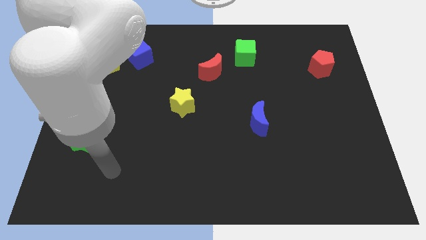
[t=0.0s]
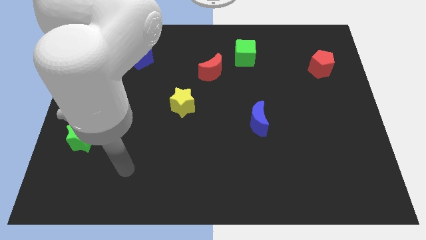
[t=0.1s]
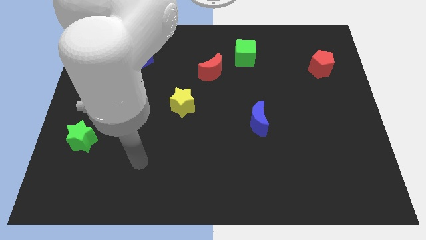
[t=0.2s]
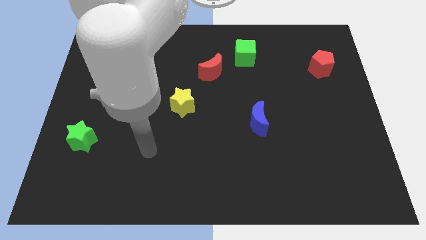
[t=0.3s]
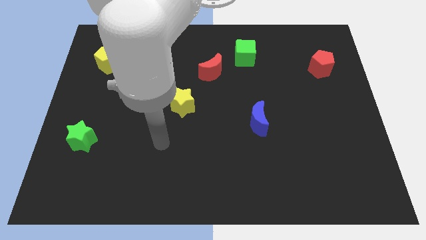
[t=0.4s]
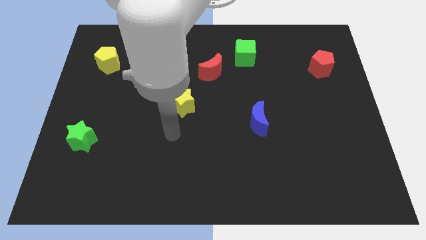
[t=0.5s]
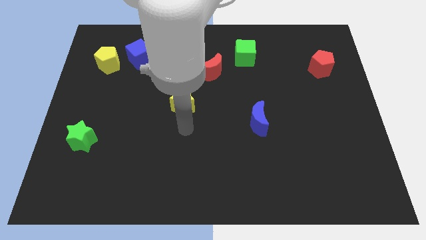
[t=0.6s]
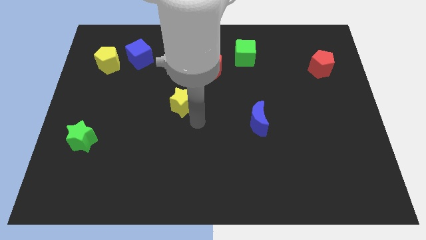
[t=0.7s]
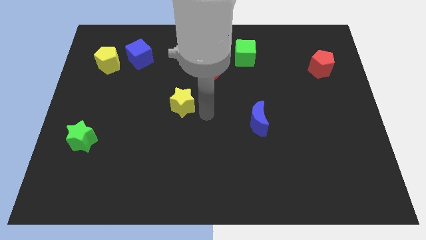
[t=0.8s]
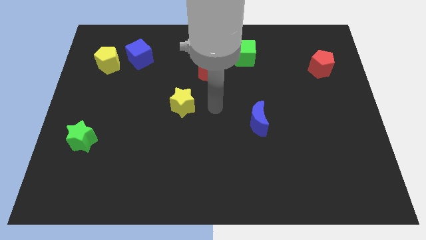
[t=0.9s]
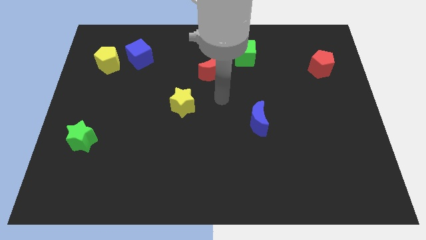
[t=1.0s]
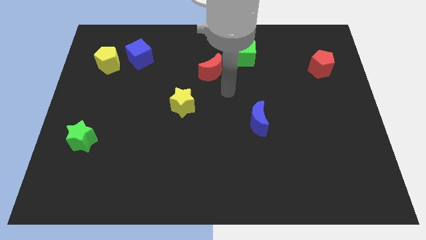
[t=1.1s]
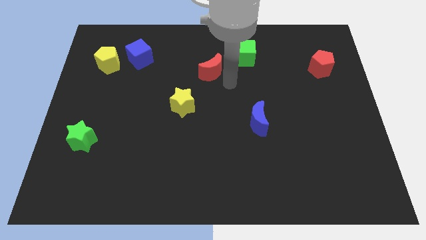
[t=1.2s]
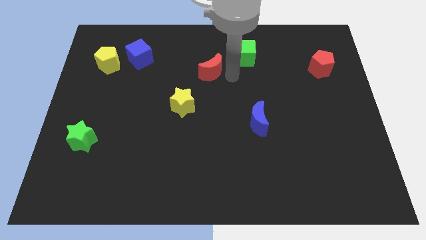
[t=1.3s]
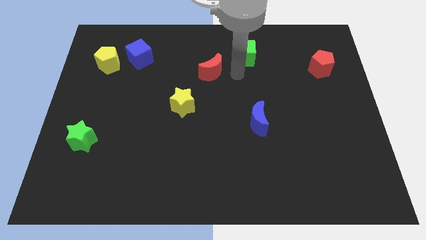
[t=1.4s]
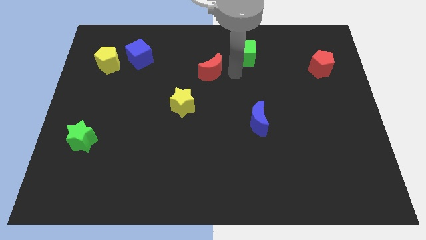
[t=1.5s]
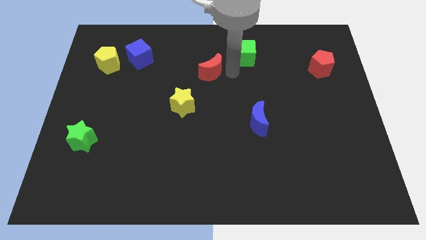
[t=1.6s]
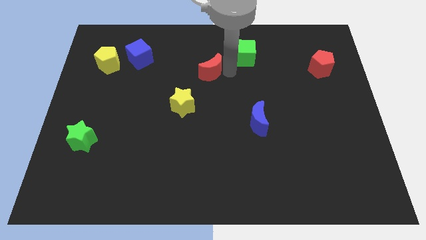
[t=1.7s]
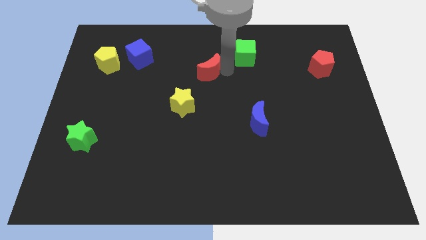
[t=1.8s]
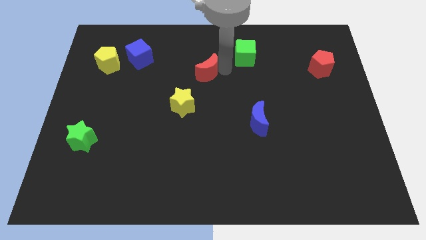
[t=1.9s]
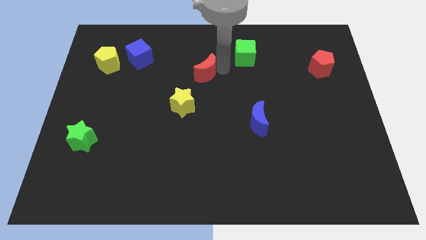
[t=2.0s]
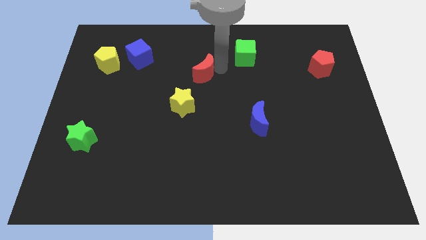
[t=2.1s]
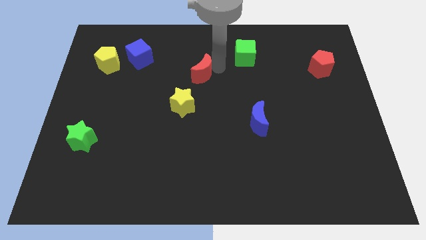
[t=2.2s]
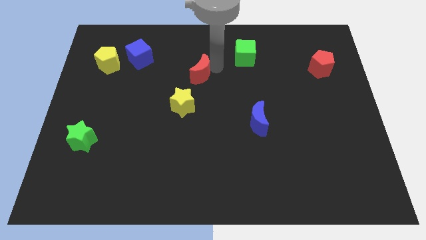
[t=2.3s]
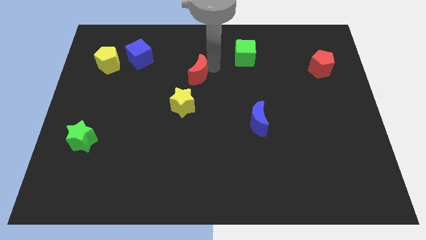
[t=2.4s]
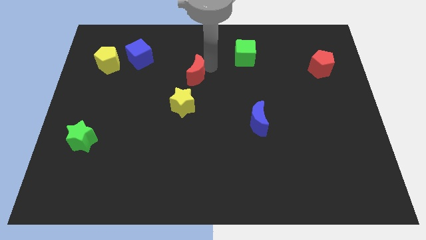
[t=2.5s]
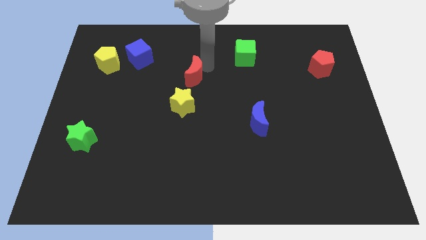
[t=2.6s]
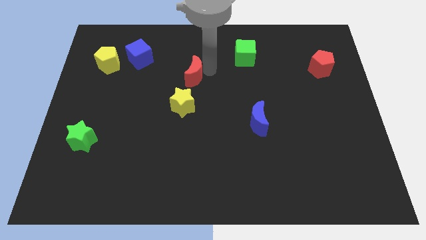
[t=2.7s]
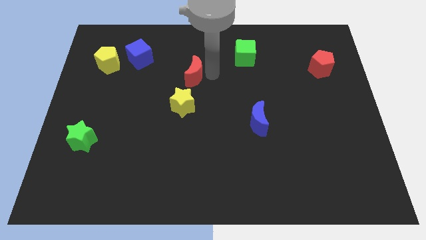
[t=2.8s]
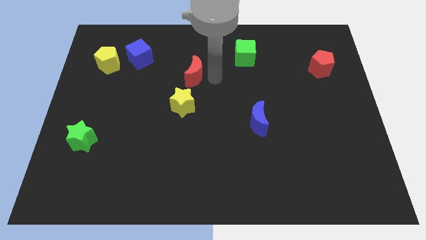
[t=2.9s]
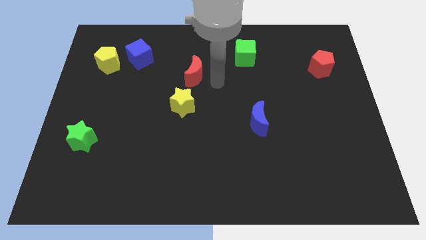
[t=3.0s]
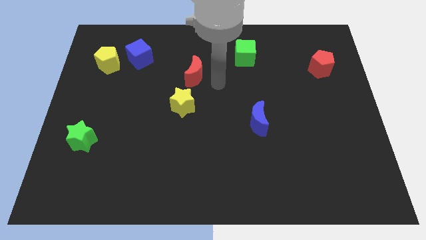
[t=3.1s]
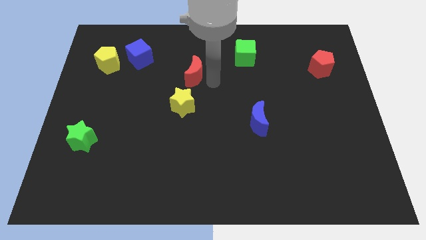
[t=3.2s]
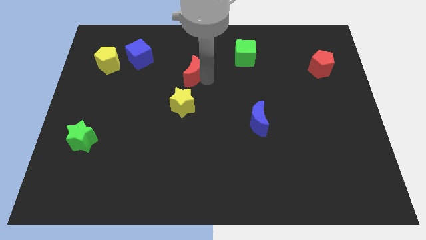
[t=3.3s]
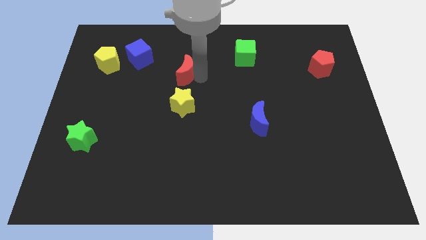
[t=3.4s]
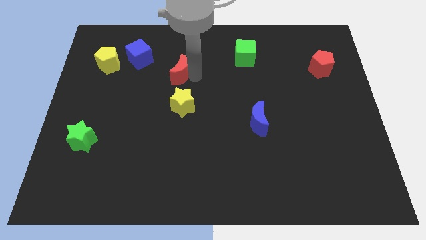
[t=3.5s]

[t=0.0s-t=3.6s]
slightly push the red moon left

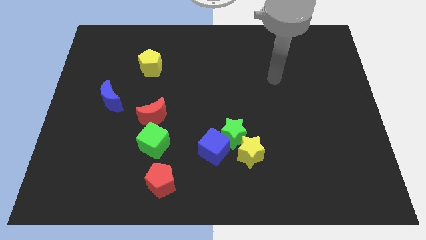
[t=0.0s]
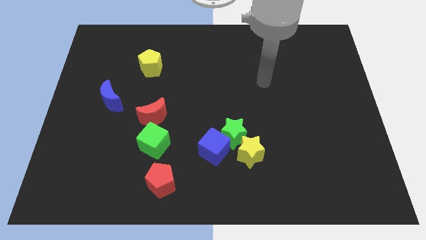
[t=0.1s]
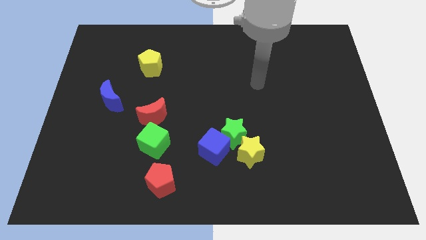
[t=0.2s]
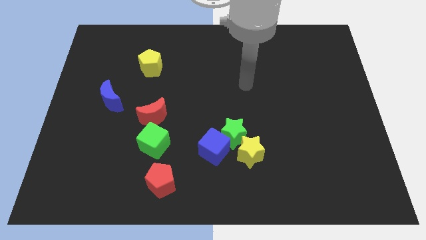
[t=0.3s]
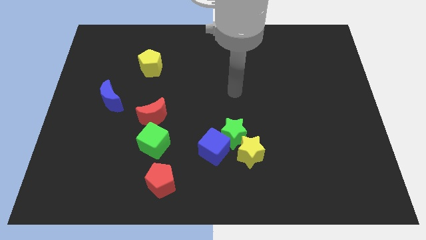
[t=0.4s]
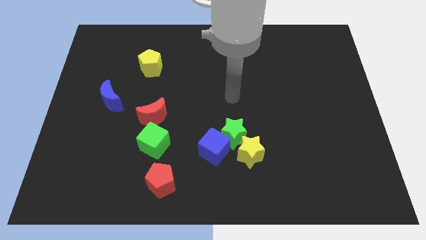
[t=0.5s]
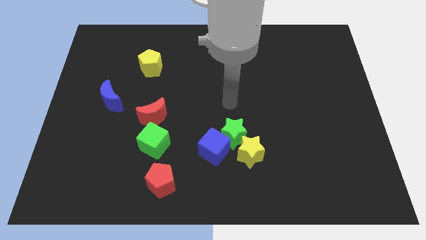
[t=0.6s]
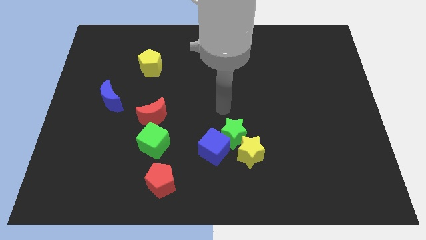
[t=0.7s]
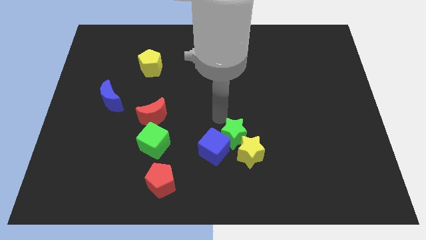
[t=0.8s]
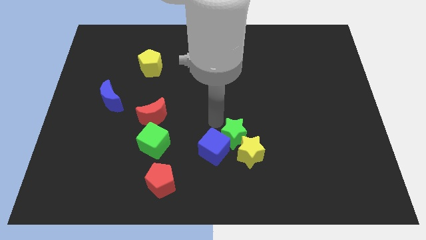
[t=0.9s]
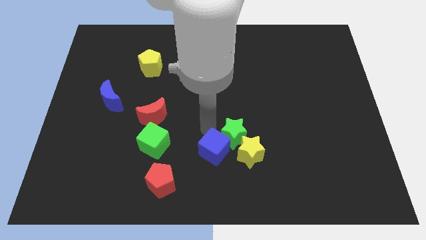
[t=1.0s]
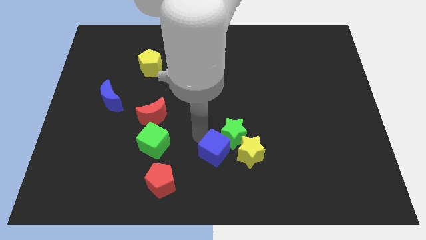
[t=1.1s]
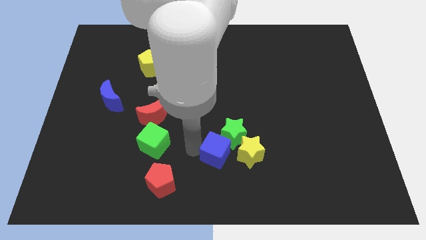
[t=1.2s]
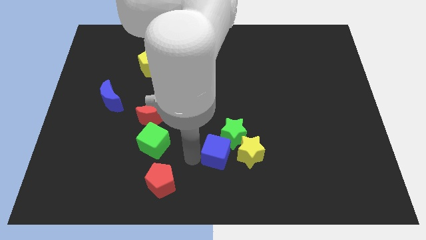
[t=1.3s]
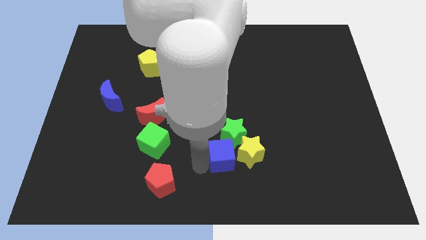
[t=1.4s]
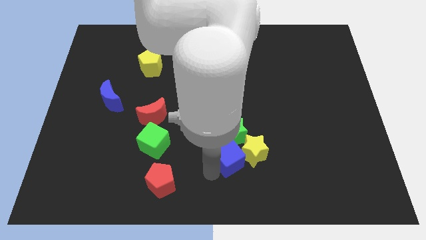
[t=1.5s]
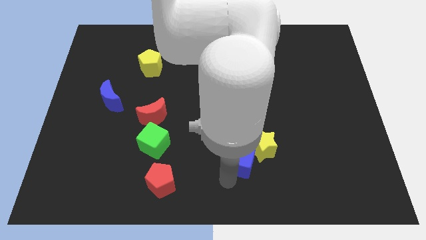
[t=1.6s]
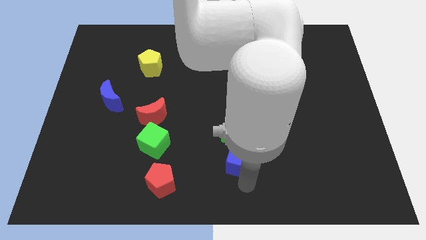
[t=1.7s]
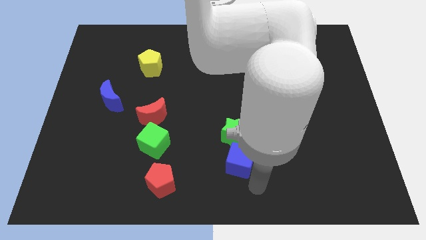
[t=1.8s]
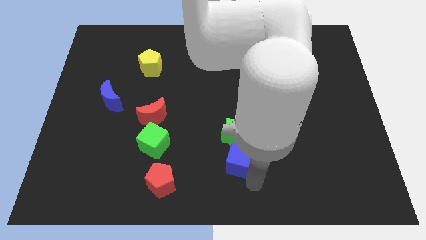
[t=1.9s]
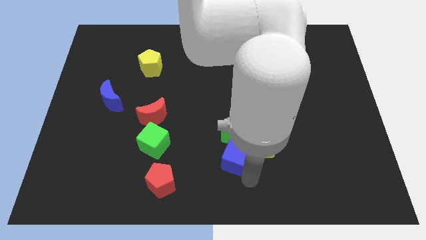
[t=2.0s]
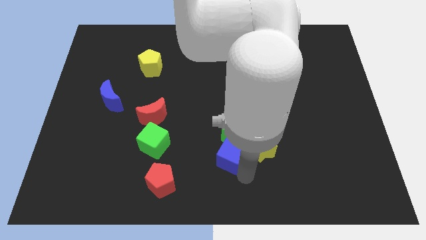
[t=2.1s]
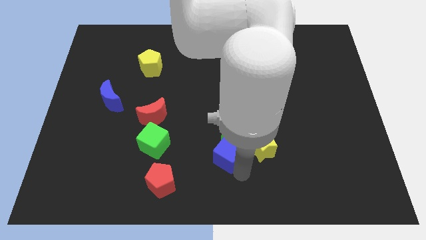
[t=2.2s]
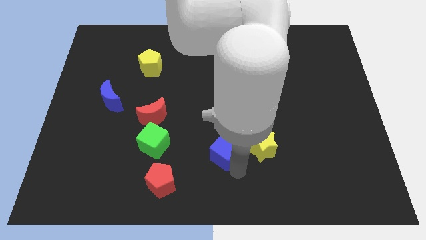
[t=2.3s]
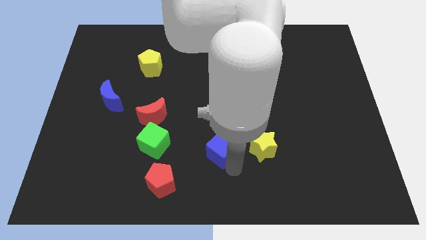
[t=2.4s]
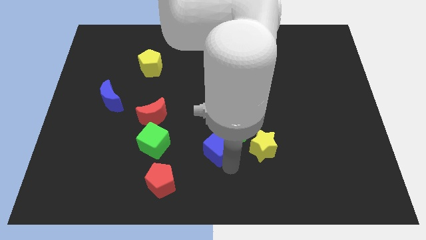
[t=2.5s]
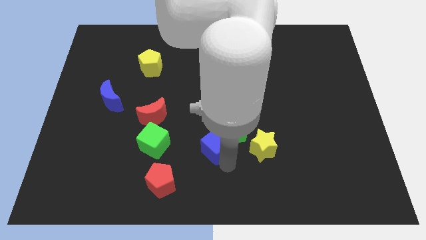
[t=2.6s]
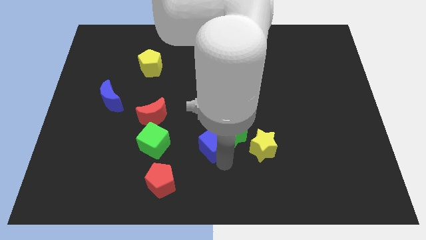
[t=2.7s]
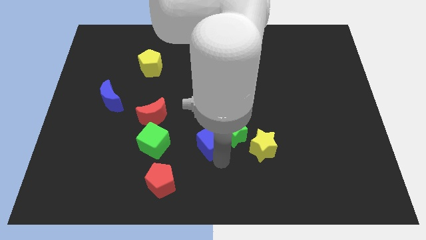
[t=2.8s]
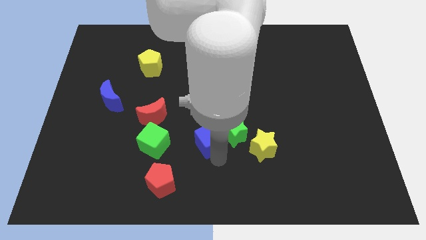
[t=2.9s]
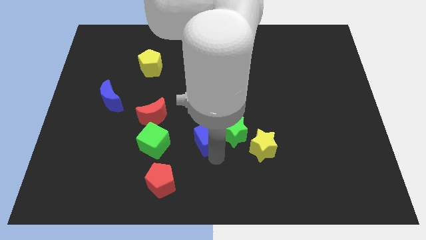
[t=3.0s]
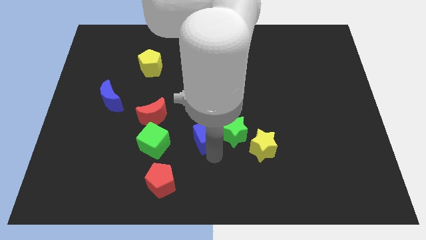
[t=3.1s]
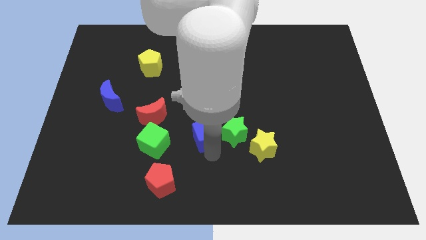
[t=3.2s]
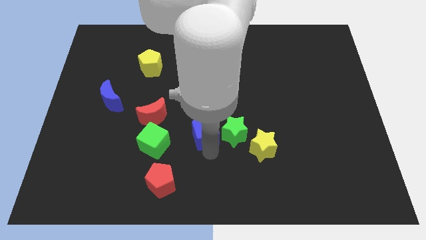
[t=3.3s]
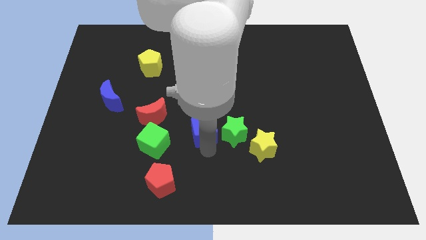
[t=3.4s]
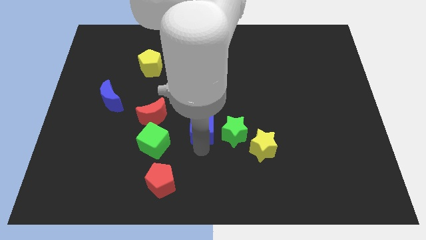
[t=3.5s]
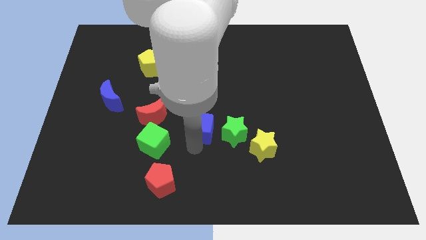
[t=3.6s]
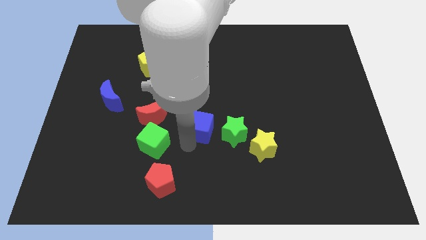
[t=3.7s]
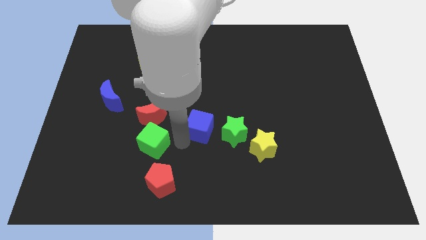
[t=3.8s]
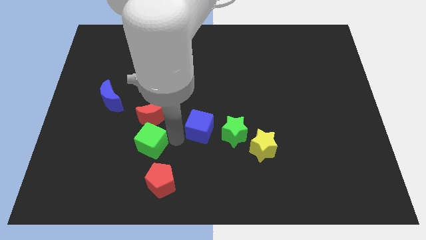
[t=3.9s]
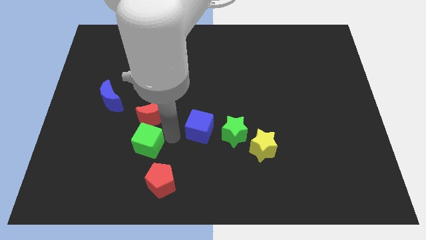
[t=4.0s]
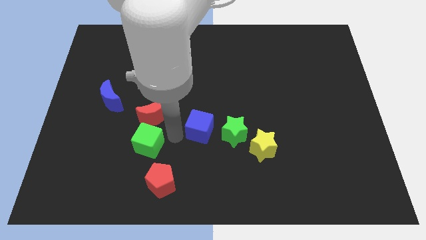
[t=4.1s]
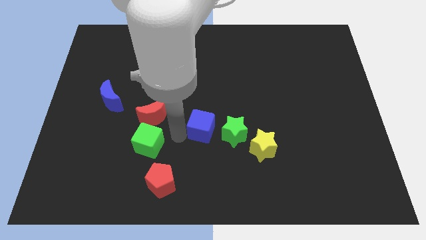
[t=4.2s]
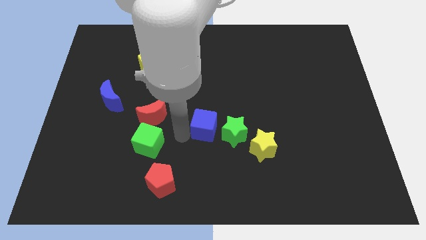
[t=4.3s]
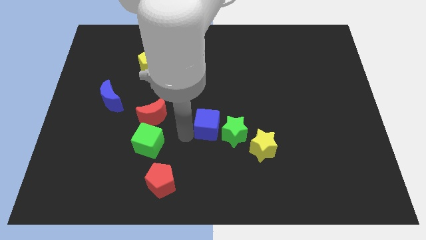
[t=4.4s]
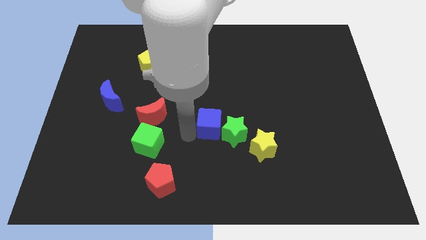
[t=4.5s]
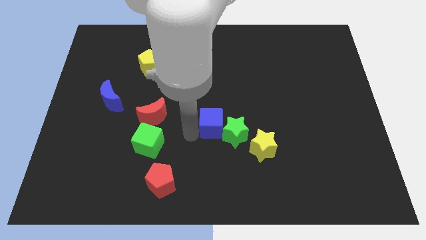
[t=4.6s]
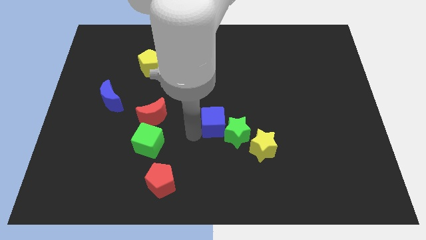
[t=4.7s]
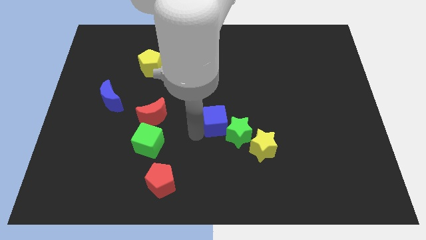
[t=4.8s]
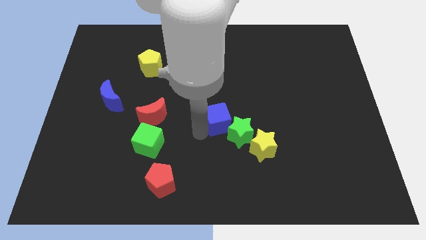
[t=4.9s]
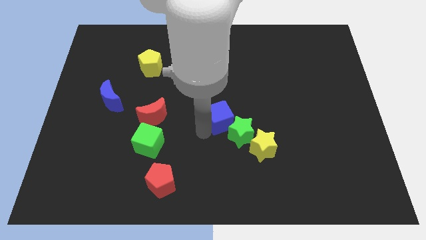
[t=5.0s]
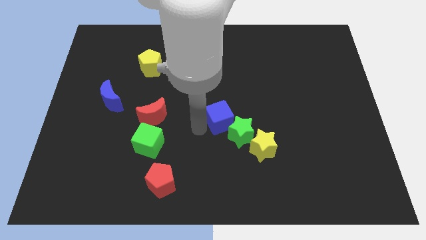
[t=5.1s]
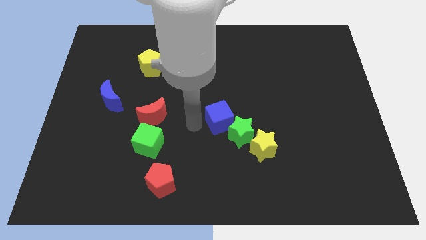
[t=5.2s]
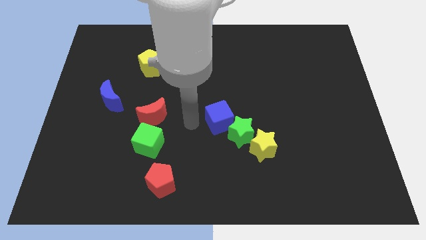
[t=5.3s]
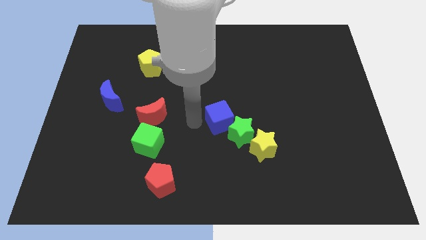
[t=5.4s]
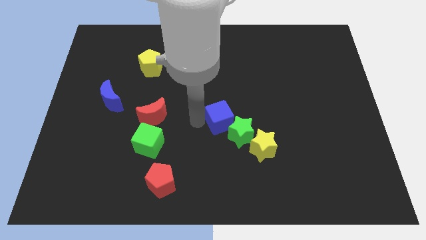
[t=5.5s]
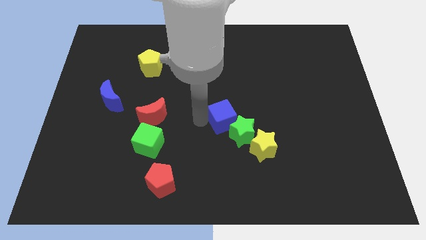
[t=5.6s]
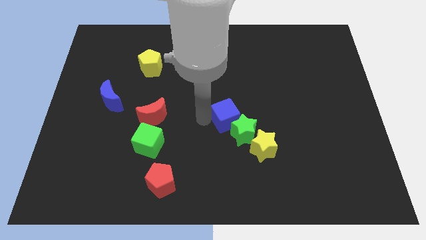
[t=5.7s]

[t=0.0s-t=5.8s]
move the blue cube a little bit up and right
